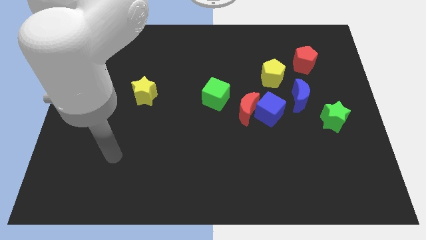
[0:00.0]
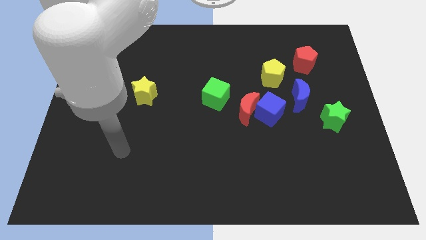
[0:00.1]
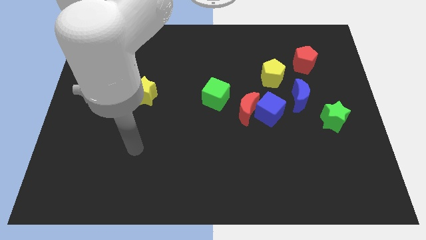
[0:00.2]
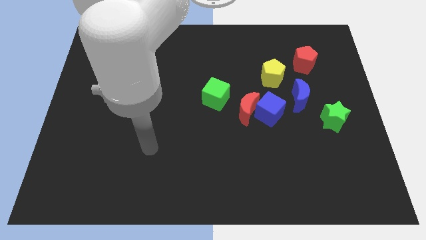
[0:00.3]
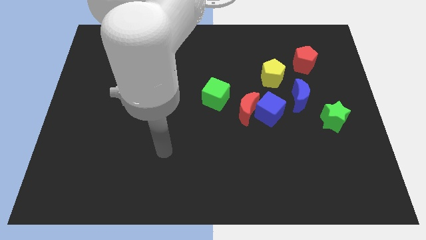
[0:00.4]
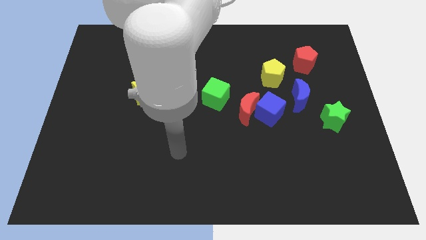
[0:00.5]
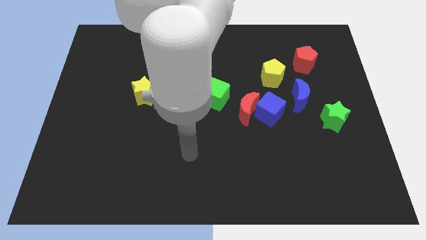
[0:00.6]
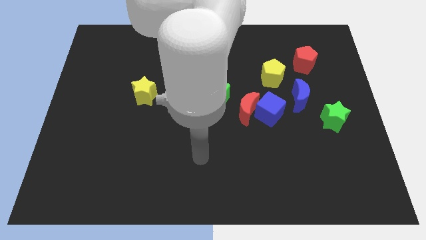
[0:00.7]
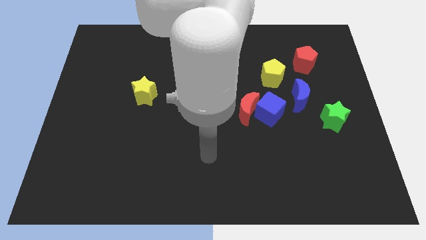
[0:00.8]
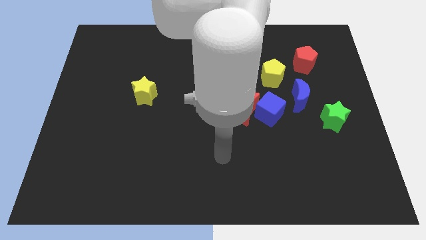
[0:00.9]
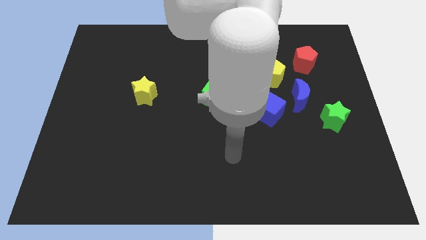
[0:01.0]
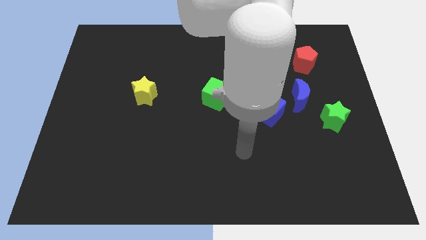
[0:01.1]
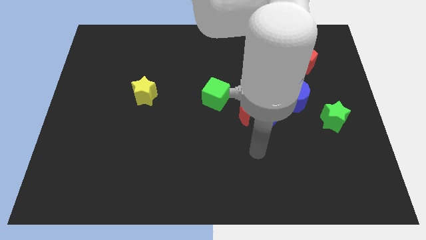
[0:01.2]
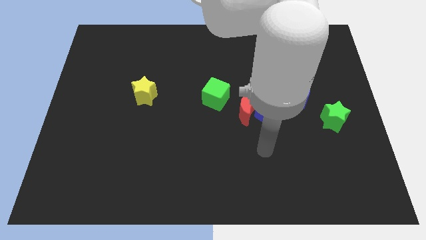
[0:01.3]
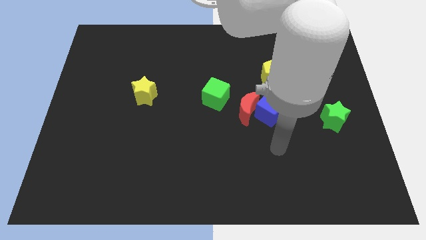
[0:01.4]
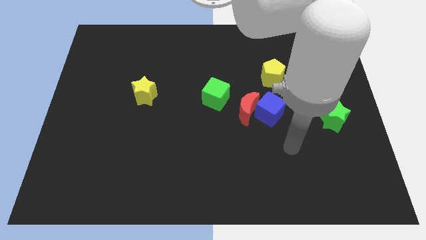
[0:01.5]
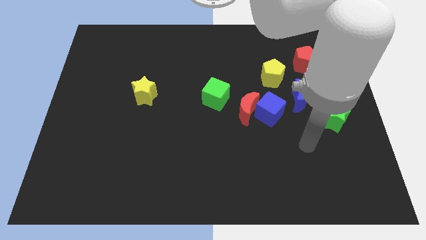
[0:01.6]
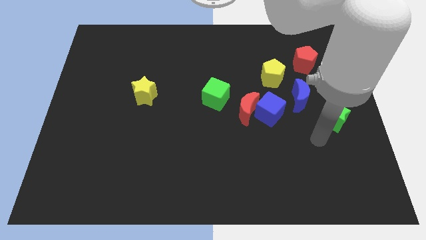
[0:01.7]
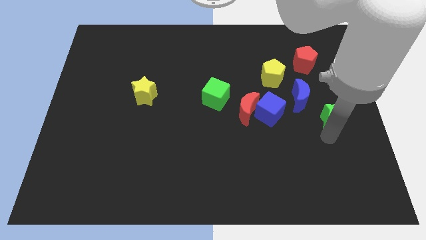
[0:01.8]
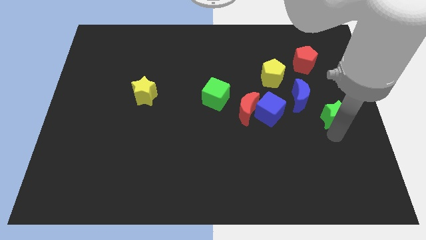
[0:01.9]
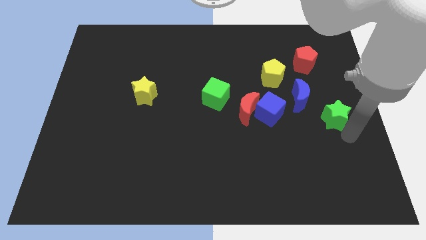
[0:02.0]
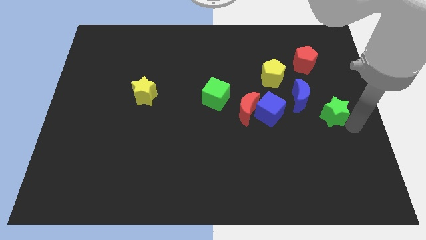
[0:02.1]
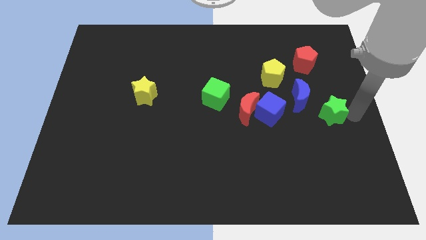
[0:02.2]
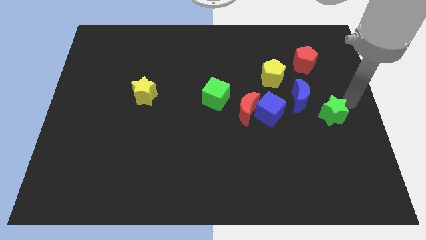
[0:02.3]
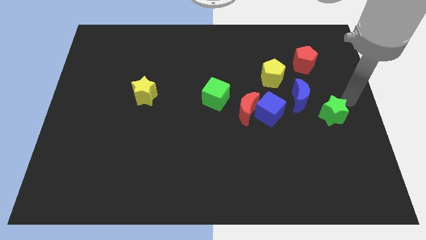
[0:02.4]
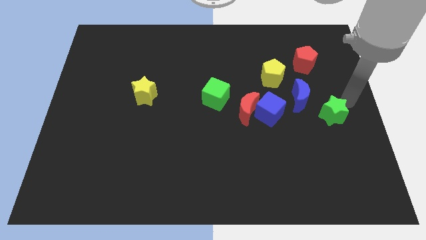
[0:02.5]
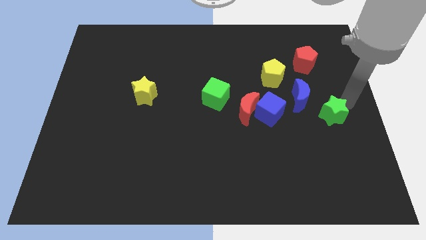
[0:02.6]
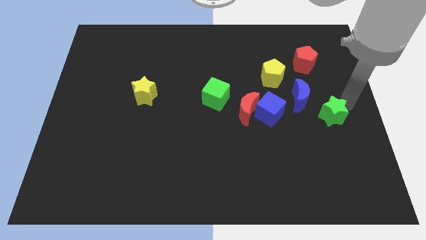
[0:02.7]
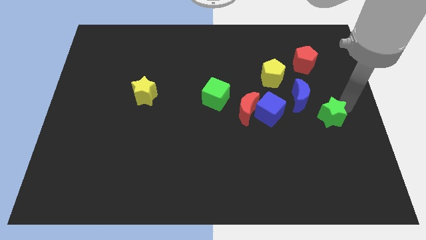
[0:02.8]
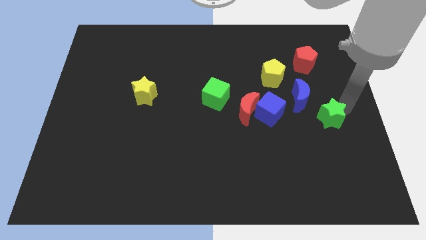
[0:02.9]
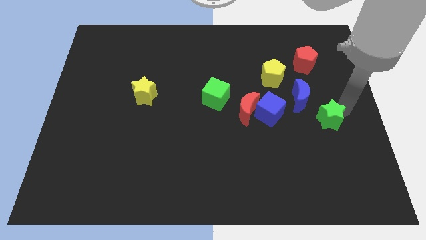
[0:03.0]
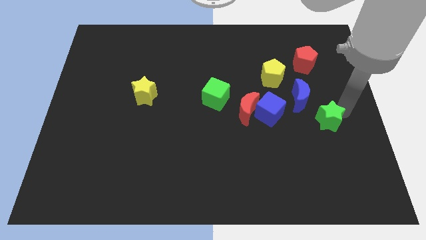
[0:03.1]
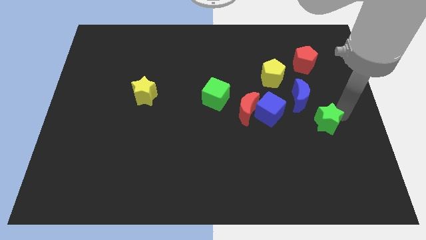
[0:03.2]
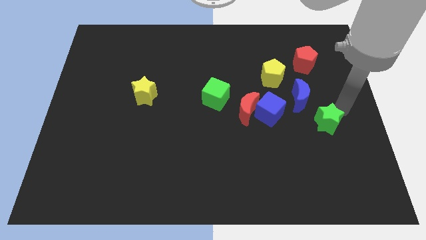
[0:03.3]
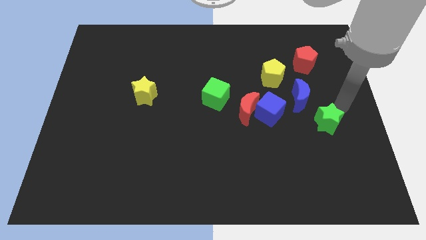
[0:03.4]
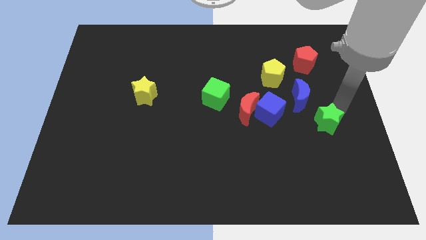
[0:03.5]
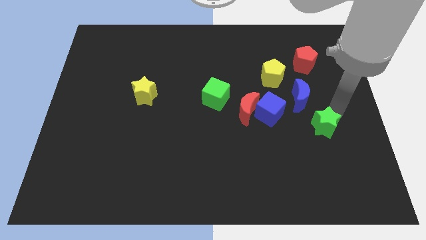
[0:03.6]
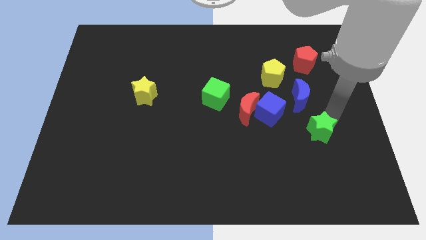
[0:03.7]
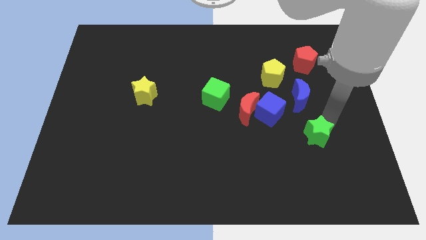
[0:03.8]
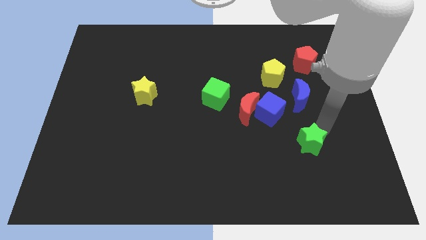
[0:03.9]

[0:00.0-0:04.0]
push the green star slightly downwards and then to the left

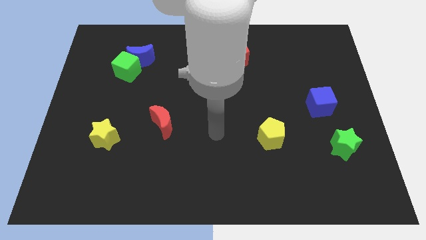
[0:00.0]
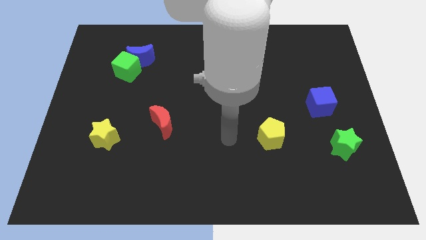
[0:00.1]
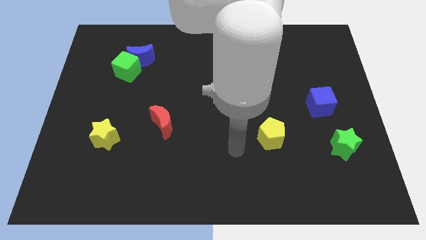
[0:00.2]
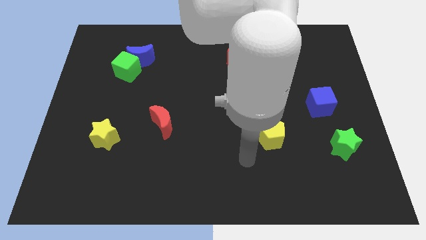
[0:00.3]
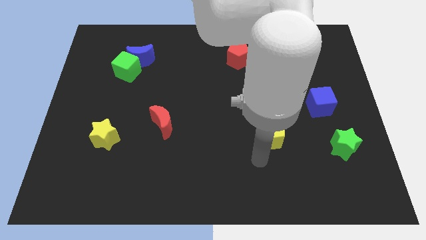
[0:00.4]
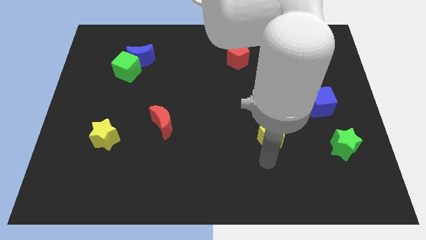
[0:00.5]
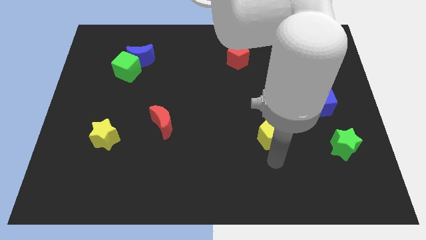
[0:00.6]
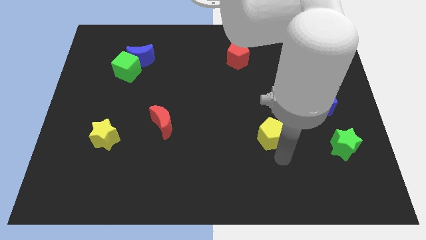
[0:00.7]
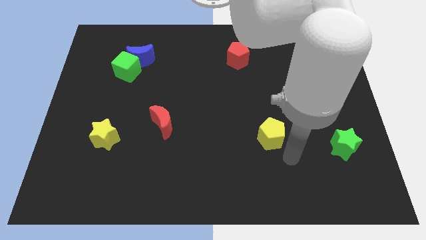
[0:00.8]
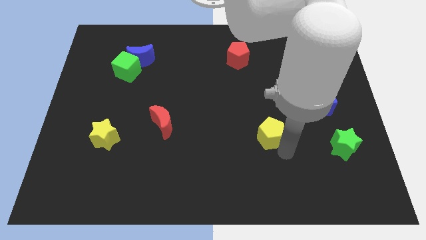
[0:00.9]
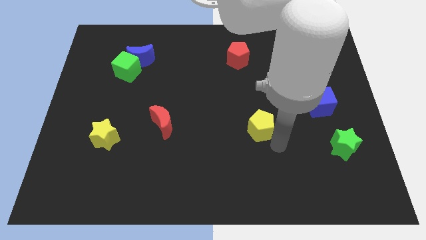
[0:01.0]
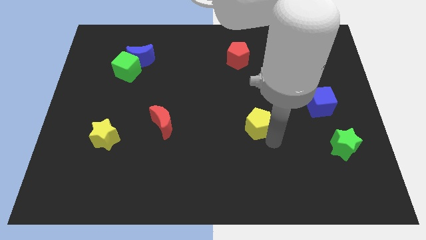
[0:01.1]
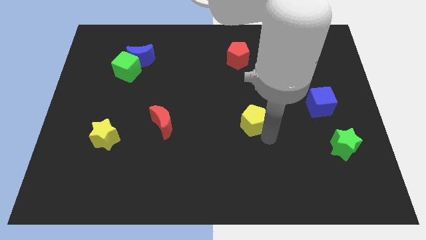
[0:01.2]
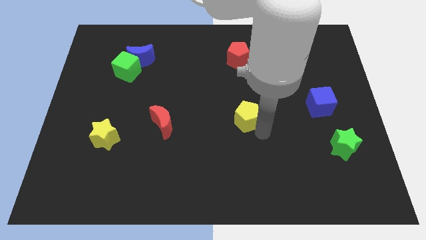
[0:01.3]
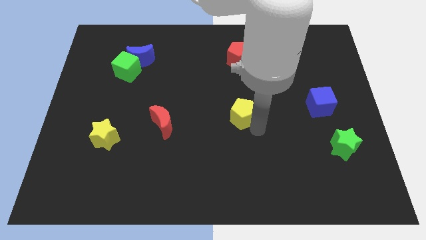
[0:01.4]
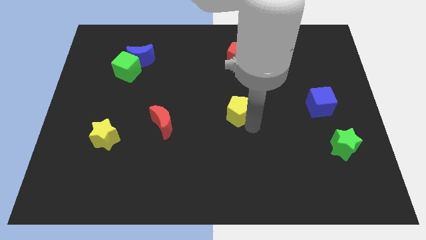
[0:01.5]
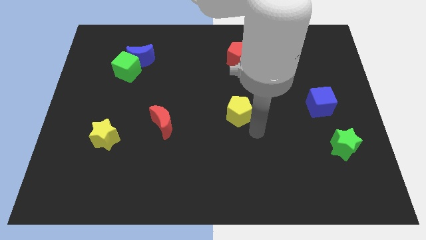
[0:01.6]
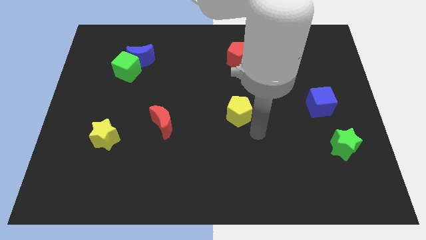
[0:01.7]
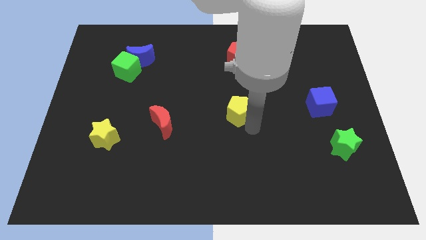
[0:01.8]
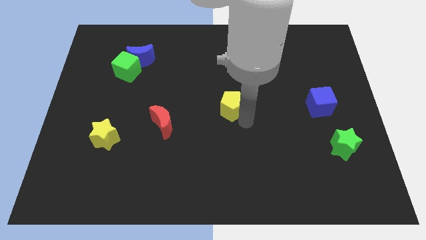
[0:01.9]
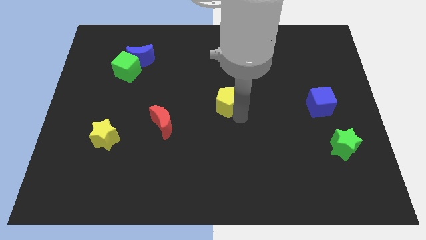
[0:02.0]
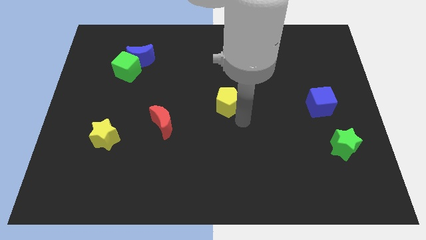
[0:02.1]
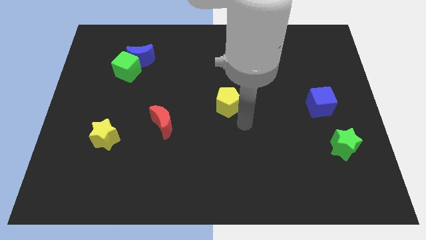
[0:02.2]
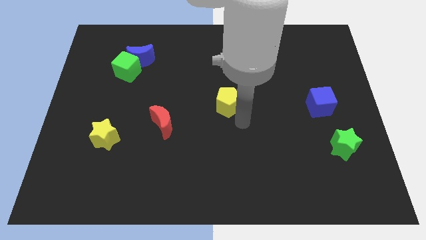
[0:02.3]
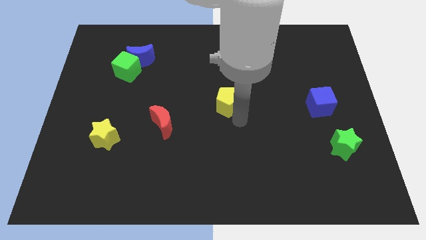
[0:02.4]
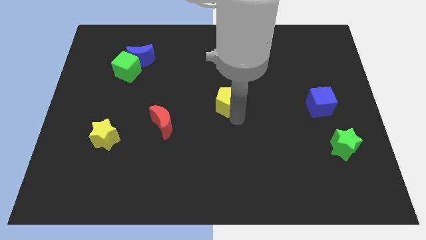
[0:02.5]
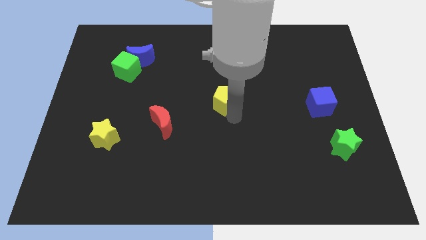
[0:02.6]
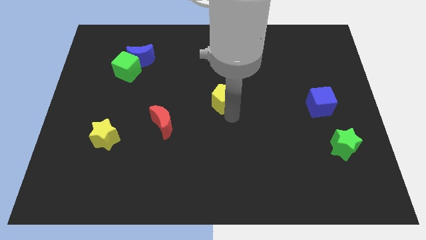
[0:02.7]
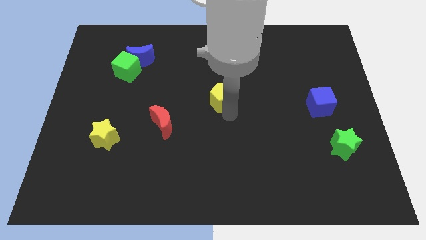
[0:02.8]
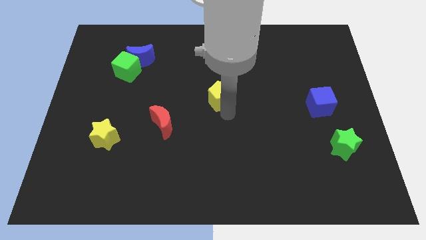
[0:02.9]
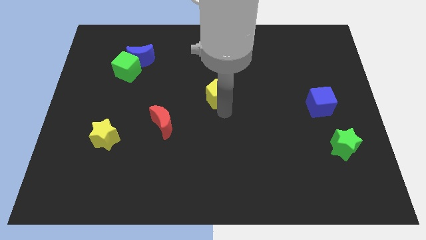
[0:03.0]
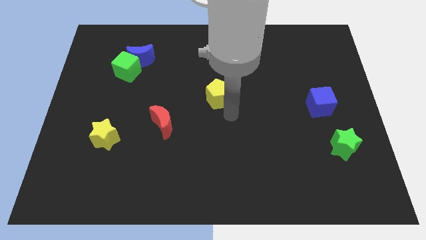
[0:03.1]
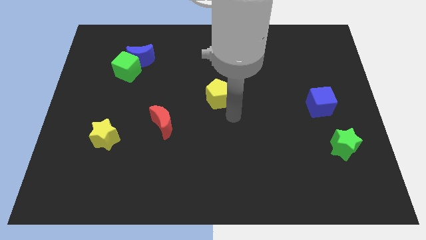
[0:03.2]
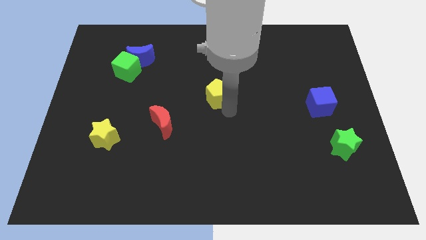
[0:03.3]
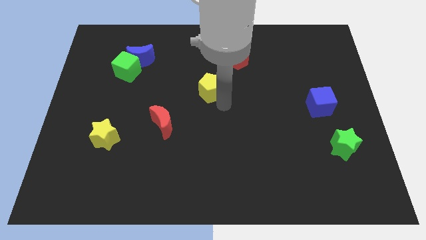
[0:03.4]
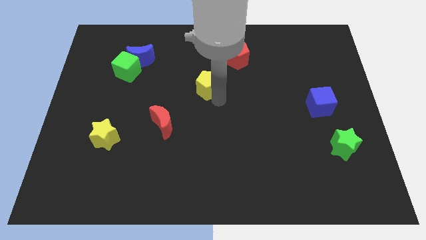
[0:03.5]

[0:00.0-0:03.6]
slide the yellow pentagon up and left diagonally
